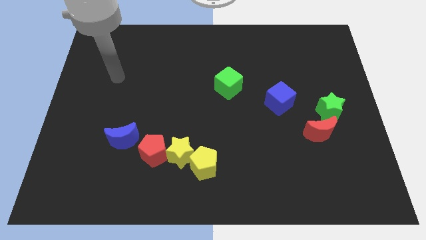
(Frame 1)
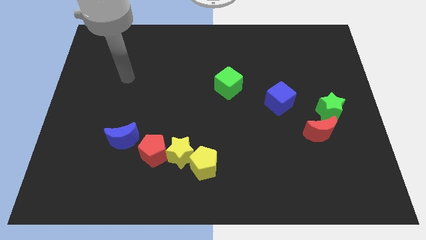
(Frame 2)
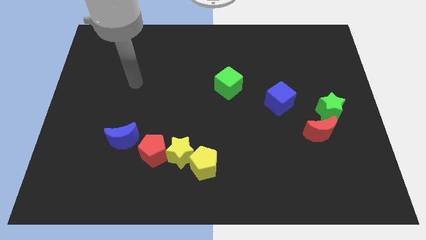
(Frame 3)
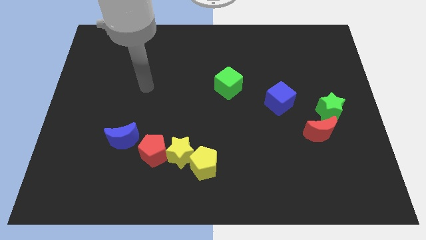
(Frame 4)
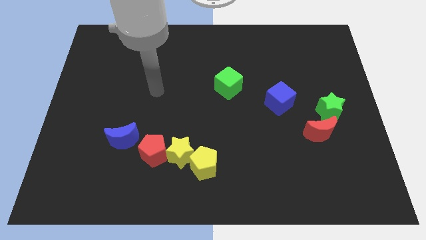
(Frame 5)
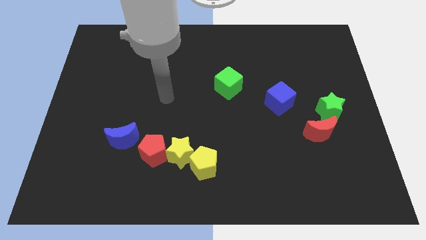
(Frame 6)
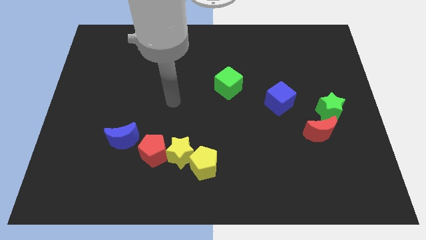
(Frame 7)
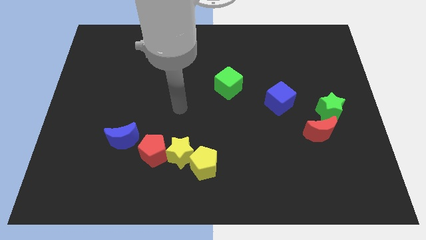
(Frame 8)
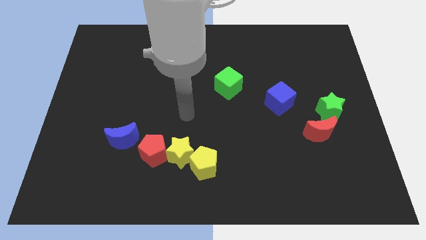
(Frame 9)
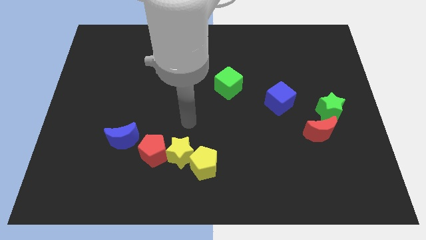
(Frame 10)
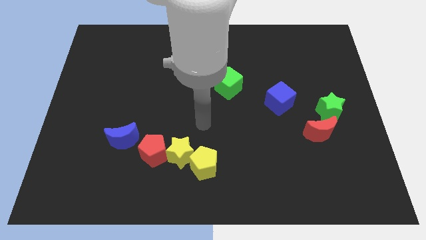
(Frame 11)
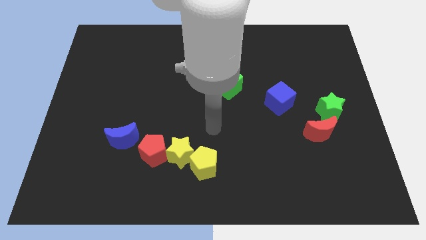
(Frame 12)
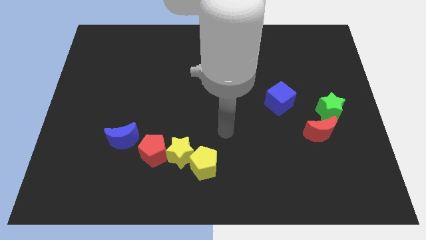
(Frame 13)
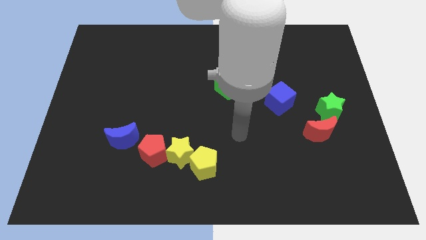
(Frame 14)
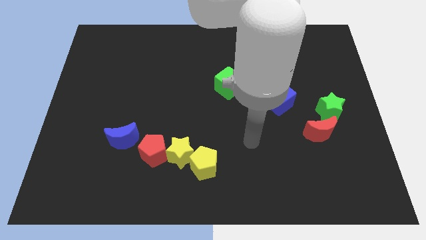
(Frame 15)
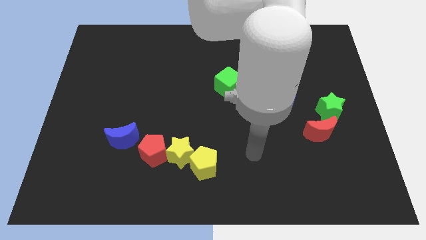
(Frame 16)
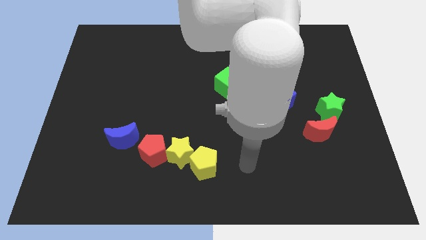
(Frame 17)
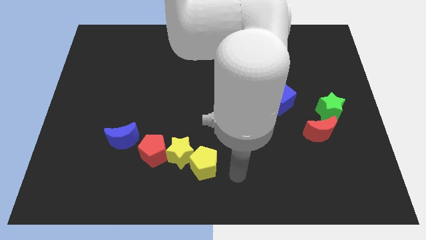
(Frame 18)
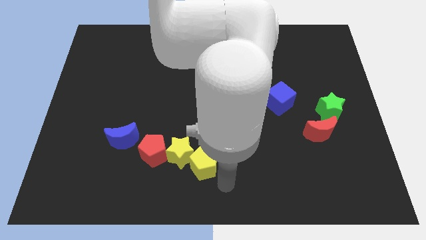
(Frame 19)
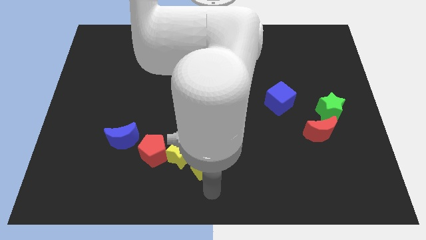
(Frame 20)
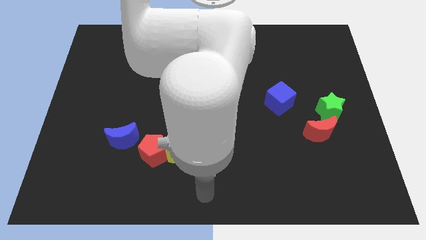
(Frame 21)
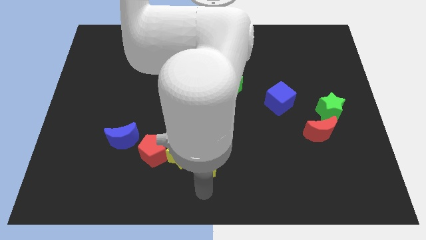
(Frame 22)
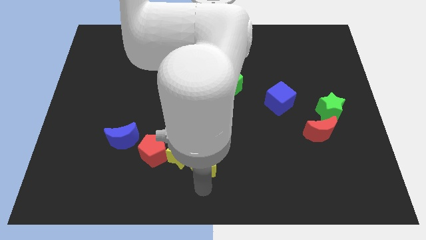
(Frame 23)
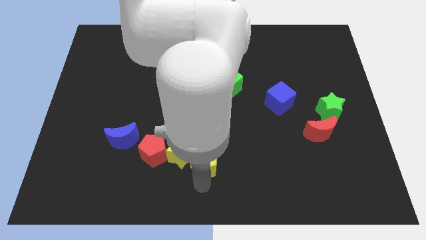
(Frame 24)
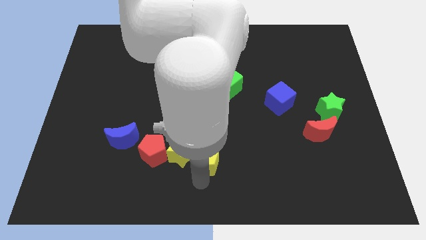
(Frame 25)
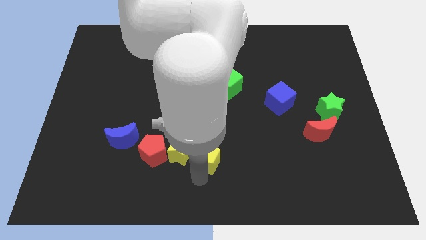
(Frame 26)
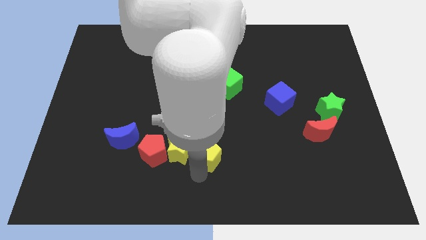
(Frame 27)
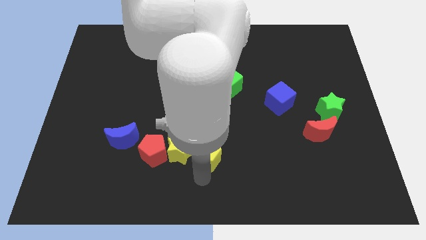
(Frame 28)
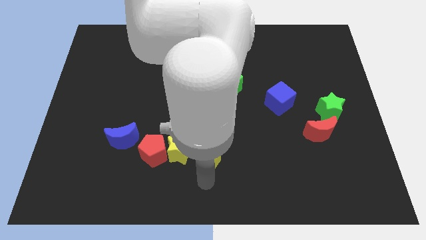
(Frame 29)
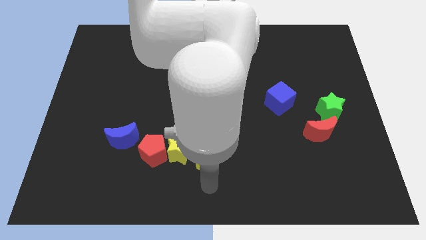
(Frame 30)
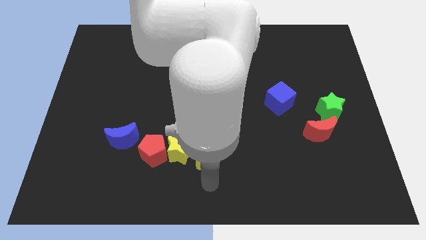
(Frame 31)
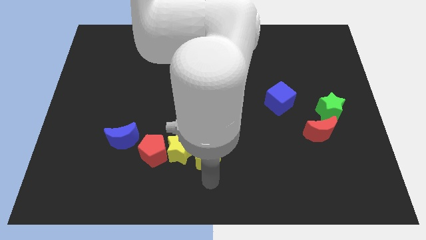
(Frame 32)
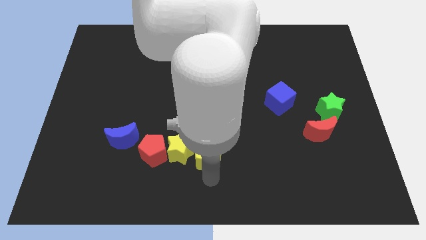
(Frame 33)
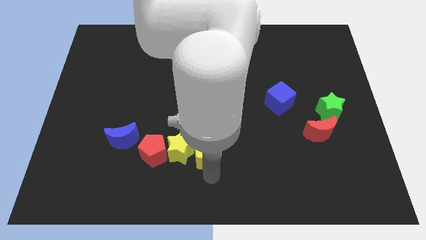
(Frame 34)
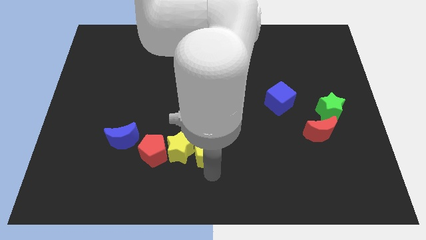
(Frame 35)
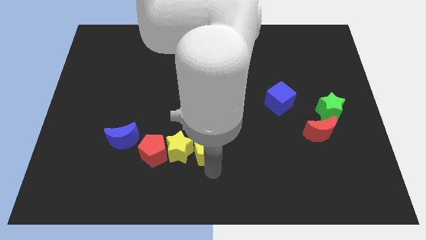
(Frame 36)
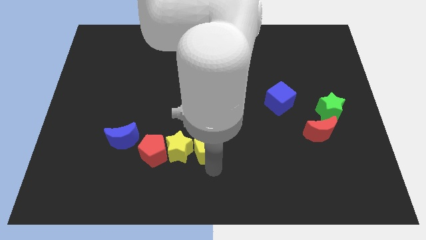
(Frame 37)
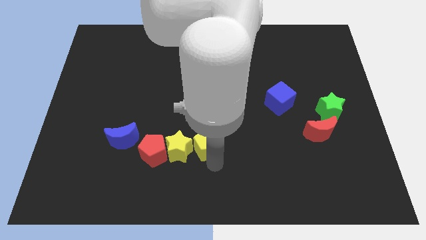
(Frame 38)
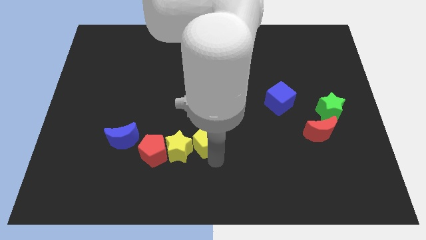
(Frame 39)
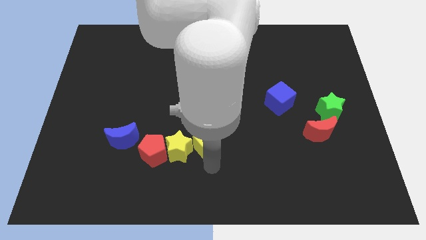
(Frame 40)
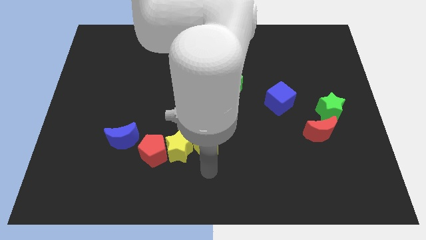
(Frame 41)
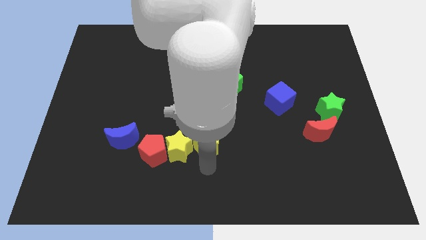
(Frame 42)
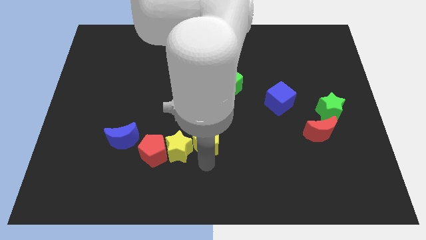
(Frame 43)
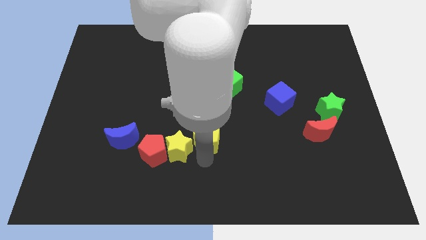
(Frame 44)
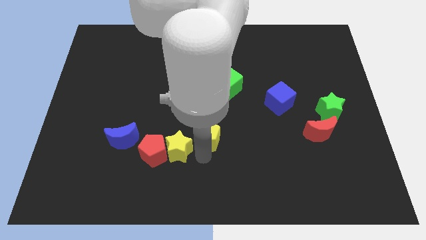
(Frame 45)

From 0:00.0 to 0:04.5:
slide the yellow pentagon a little upwards

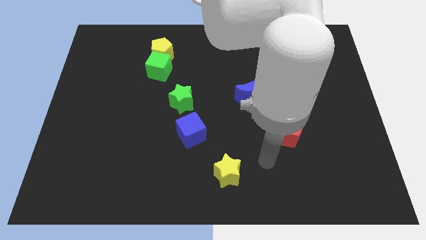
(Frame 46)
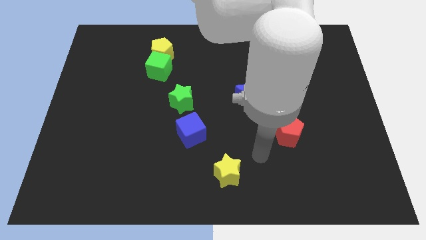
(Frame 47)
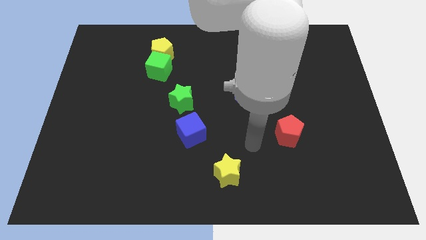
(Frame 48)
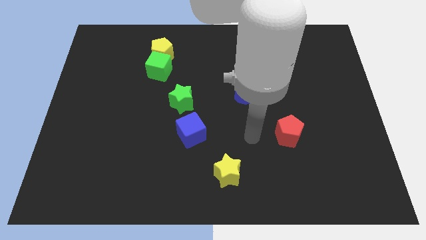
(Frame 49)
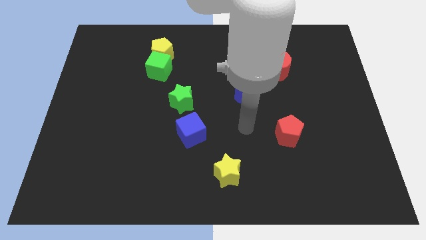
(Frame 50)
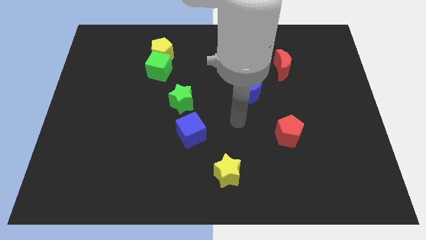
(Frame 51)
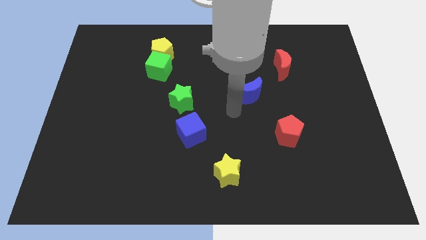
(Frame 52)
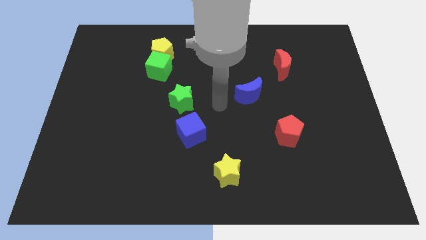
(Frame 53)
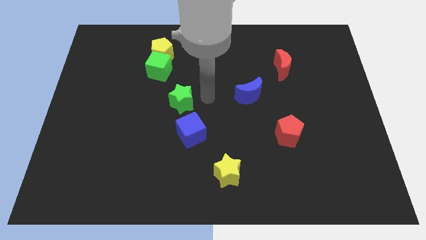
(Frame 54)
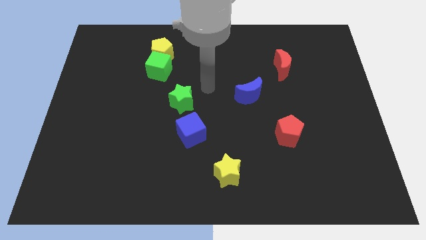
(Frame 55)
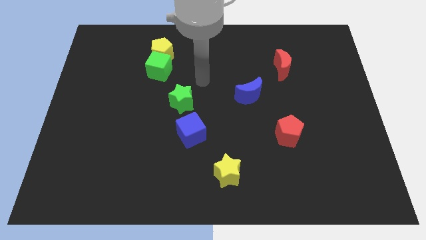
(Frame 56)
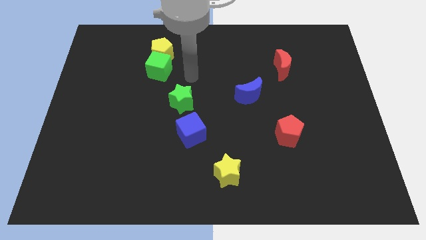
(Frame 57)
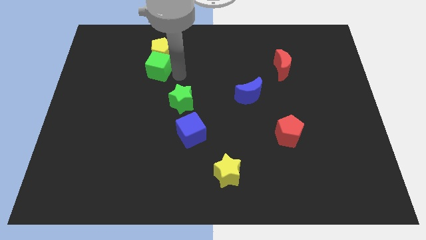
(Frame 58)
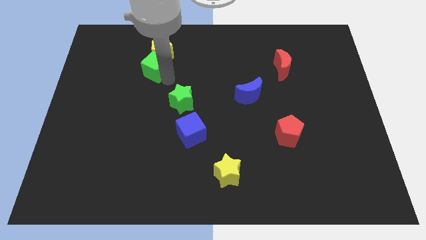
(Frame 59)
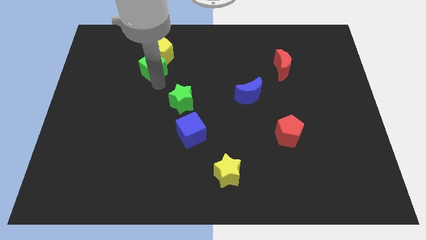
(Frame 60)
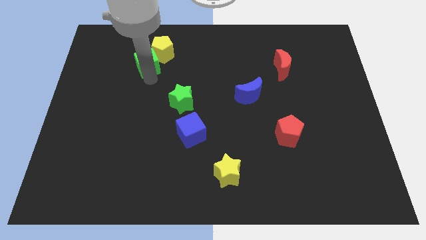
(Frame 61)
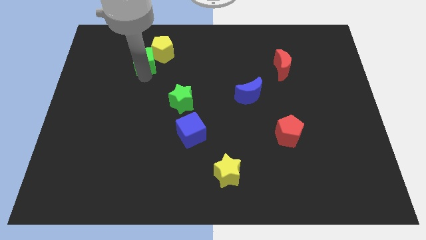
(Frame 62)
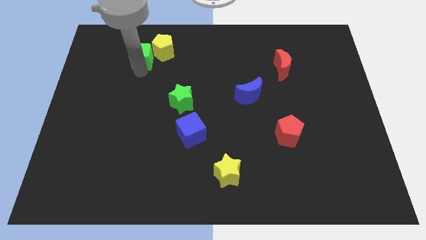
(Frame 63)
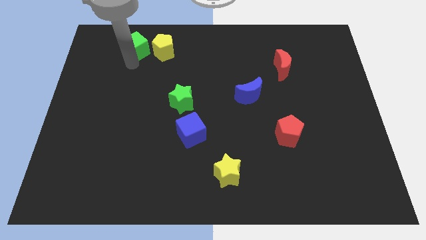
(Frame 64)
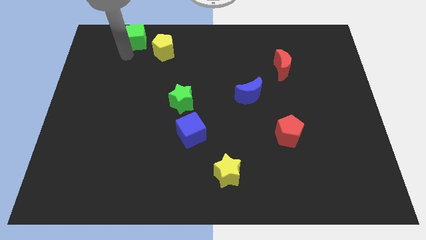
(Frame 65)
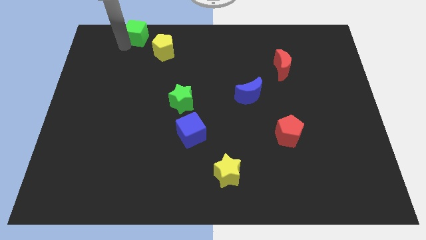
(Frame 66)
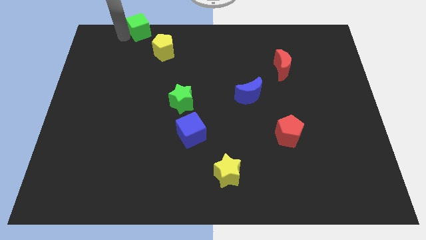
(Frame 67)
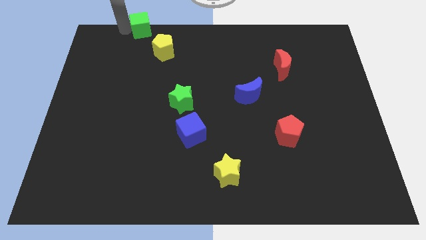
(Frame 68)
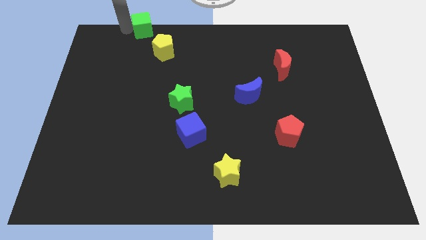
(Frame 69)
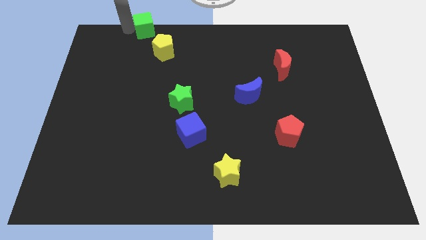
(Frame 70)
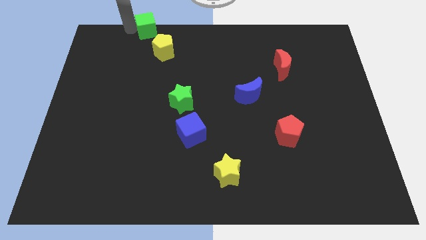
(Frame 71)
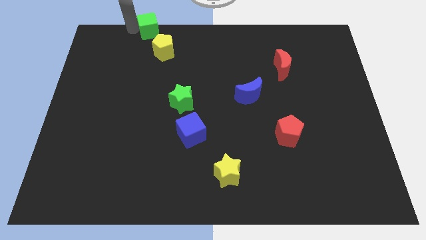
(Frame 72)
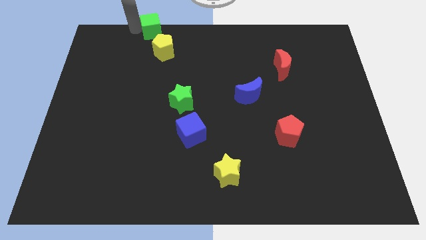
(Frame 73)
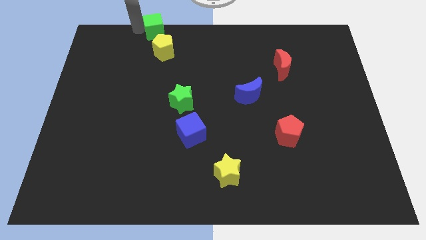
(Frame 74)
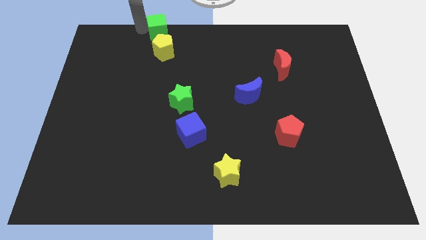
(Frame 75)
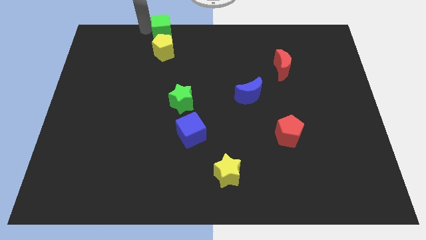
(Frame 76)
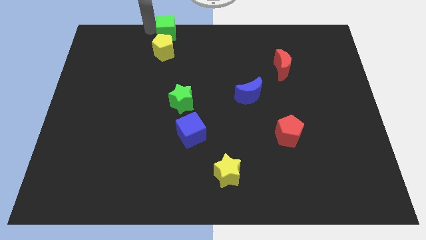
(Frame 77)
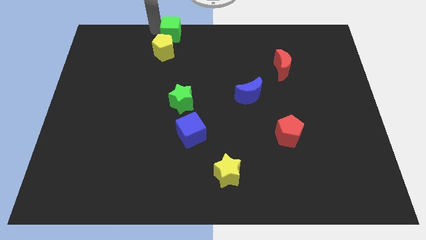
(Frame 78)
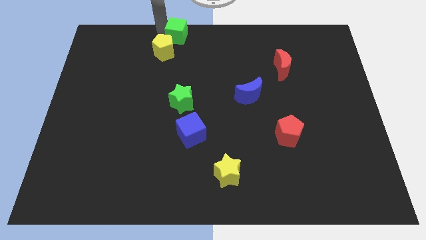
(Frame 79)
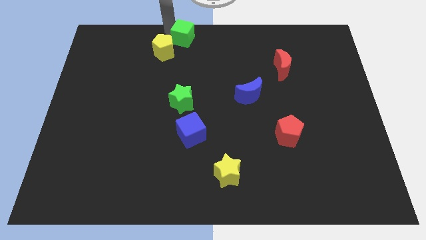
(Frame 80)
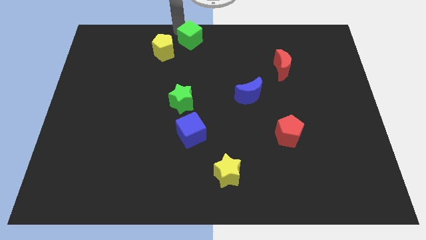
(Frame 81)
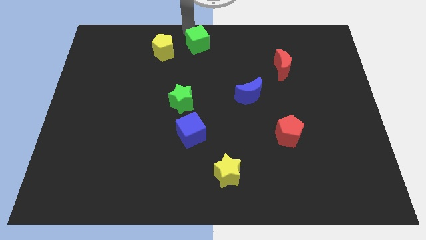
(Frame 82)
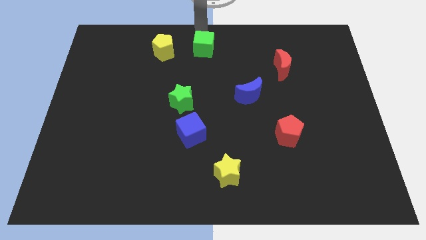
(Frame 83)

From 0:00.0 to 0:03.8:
move the green cube to the right a little bit

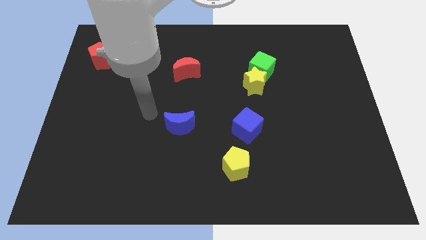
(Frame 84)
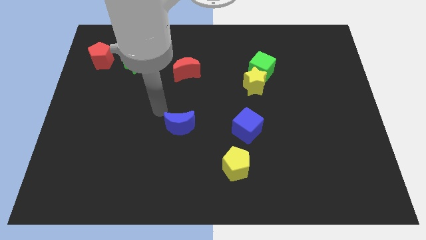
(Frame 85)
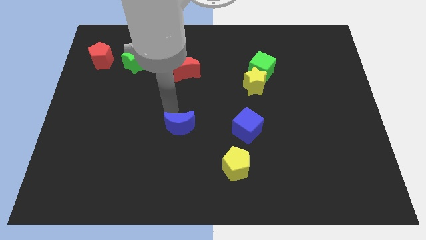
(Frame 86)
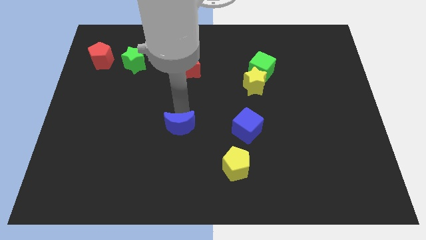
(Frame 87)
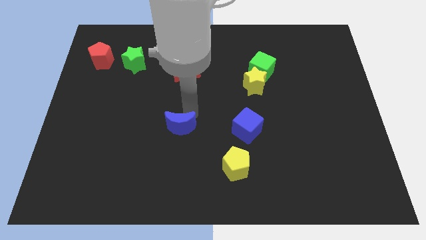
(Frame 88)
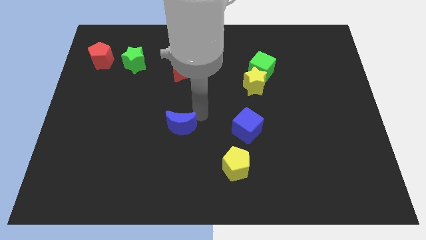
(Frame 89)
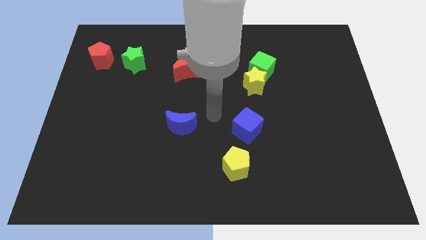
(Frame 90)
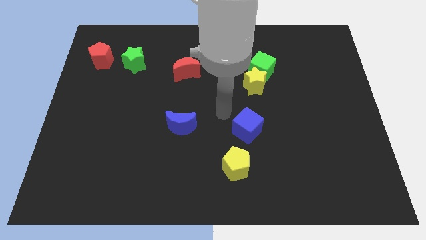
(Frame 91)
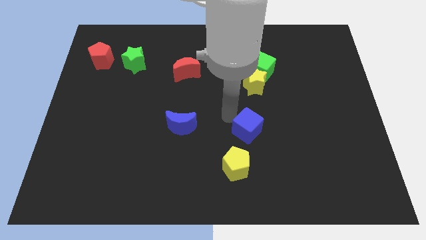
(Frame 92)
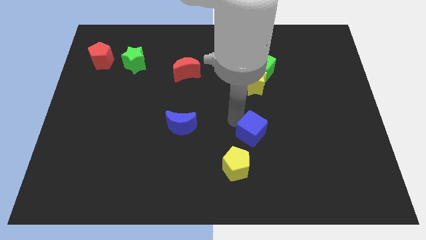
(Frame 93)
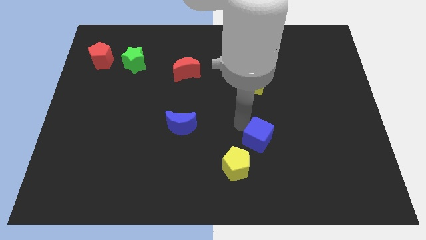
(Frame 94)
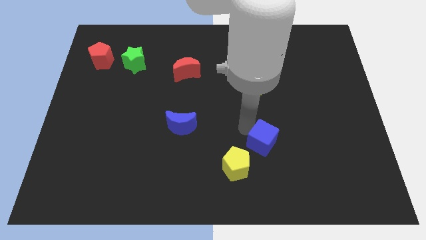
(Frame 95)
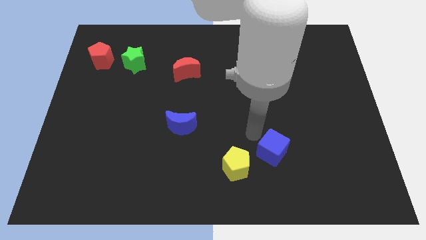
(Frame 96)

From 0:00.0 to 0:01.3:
push the blue cube down and to the right a bit
